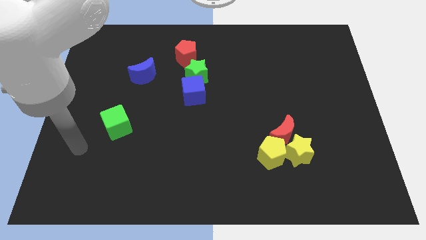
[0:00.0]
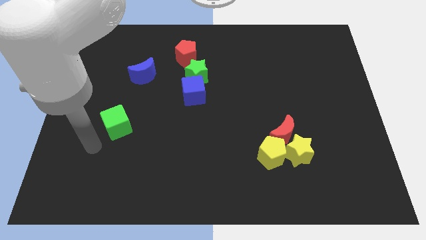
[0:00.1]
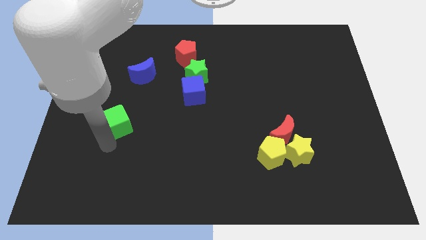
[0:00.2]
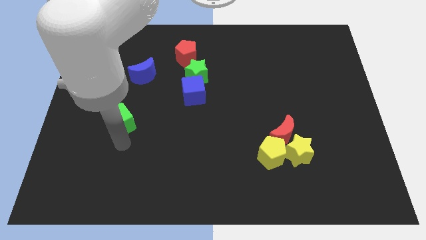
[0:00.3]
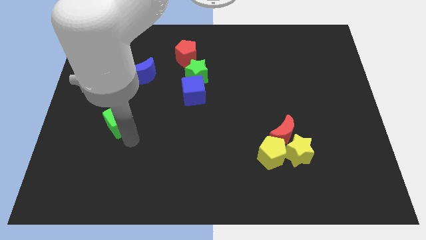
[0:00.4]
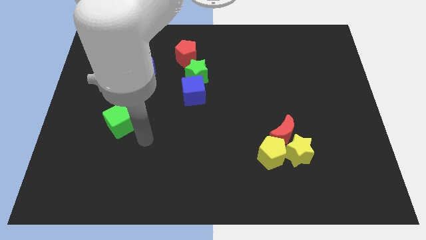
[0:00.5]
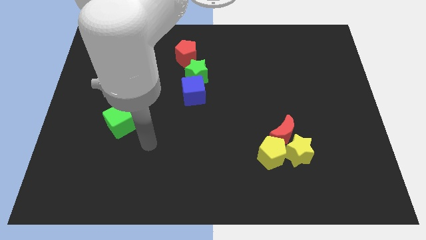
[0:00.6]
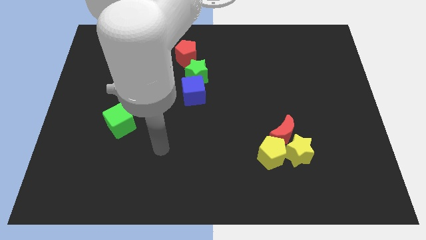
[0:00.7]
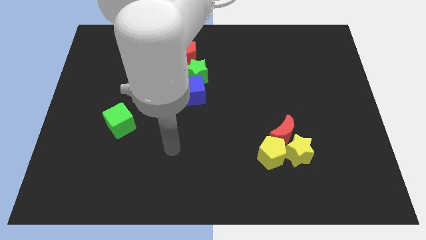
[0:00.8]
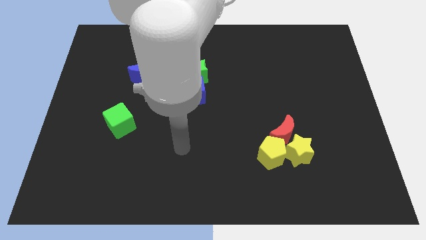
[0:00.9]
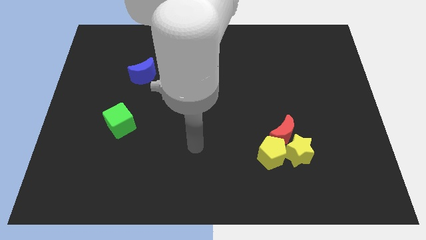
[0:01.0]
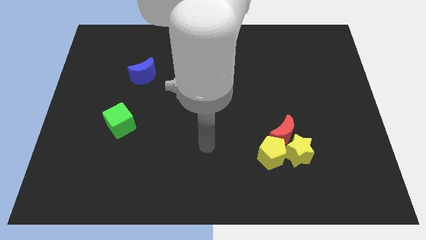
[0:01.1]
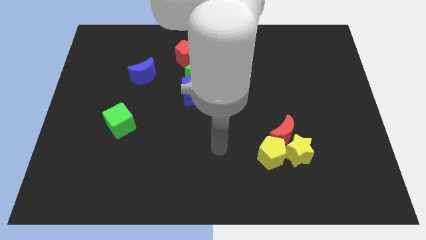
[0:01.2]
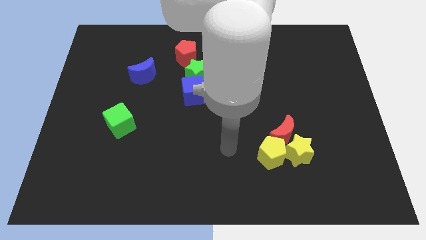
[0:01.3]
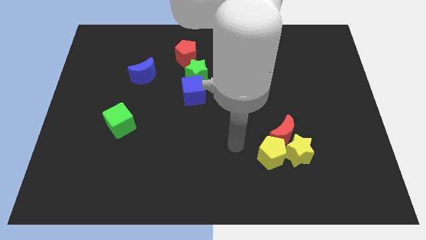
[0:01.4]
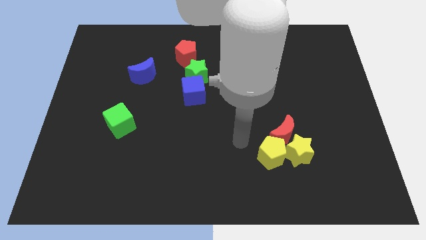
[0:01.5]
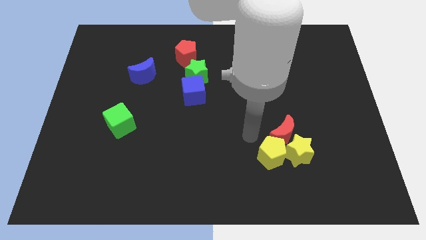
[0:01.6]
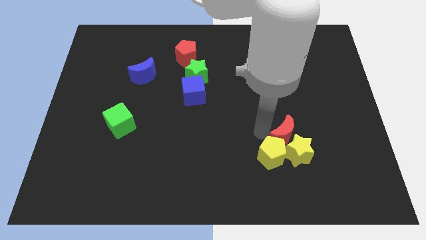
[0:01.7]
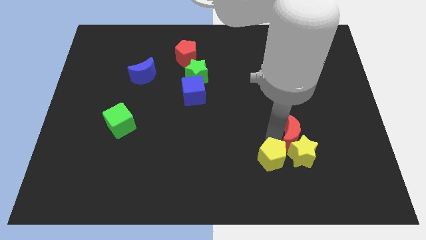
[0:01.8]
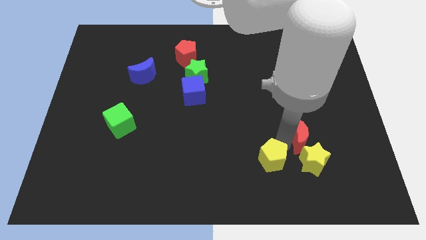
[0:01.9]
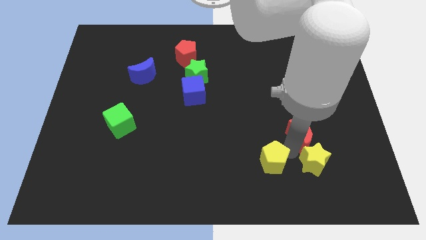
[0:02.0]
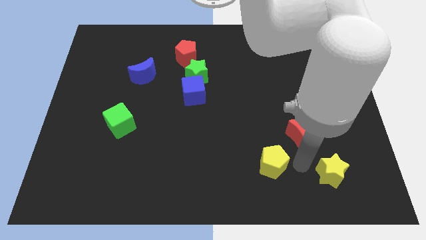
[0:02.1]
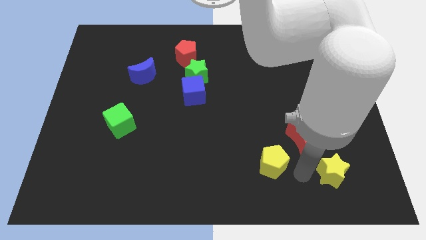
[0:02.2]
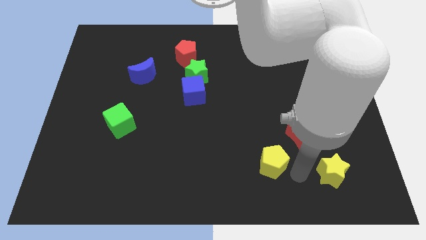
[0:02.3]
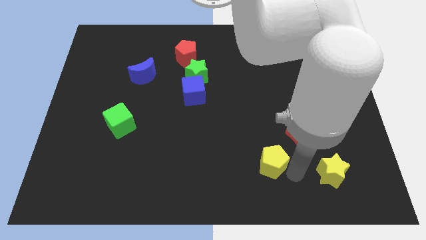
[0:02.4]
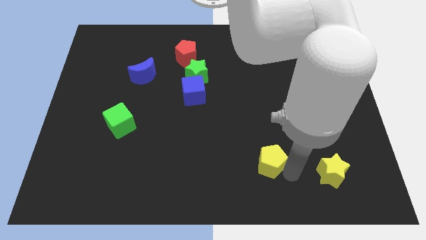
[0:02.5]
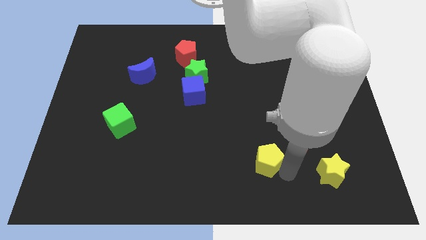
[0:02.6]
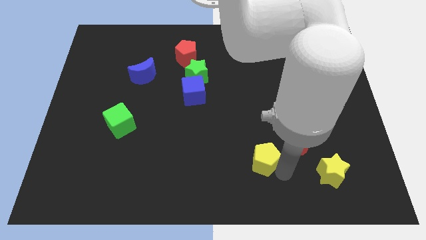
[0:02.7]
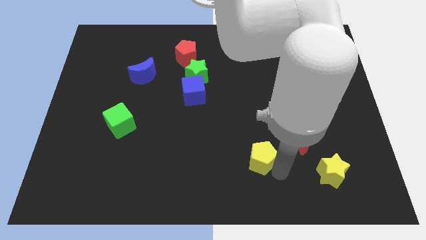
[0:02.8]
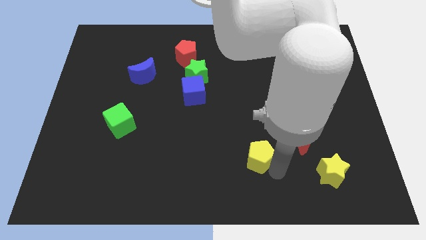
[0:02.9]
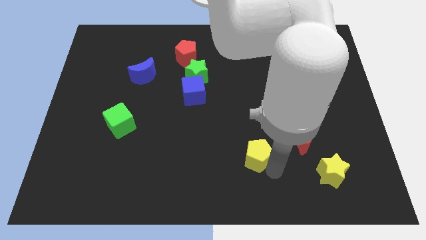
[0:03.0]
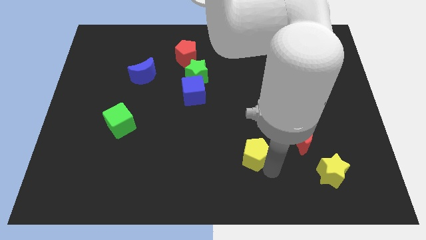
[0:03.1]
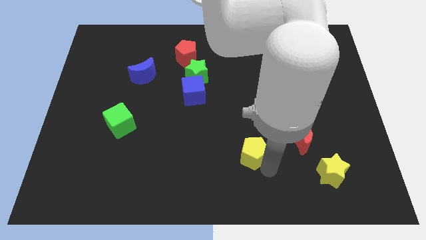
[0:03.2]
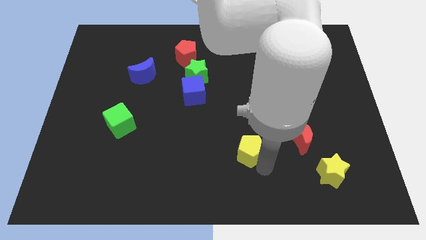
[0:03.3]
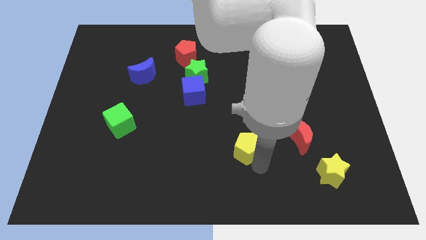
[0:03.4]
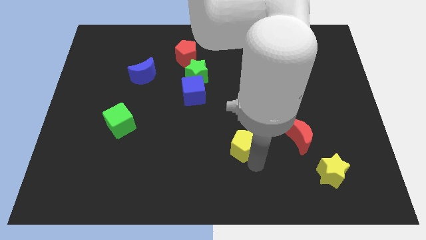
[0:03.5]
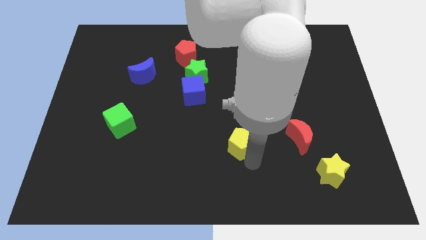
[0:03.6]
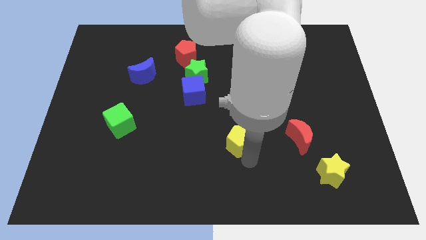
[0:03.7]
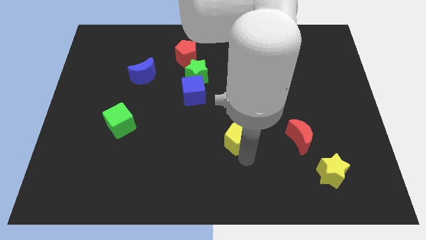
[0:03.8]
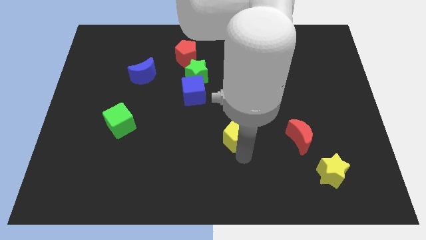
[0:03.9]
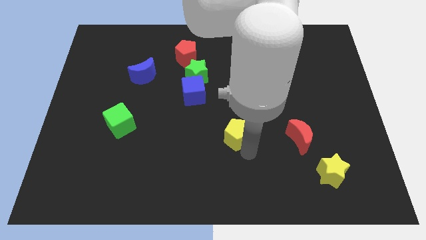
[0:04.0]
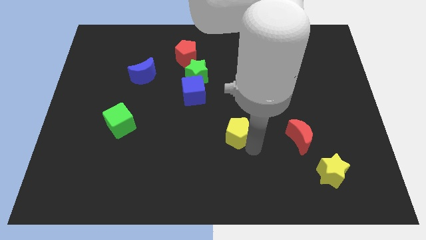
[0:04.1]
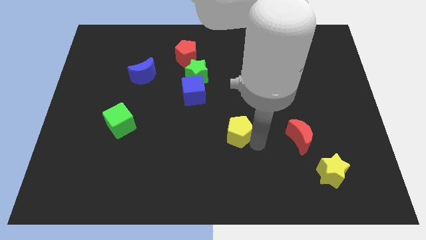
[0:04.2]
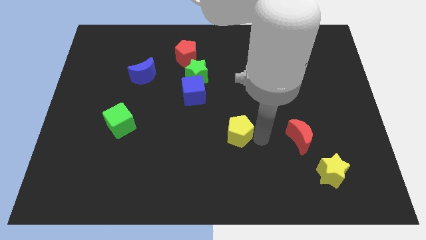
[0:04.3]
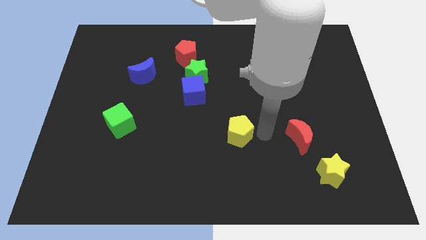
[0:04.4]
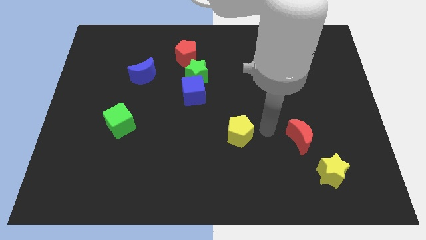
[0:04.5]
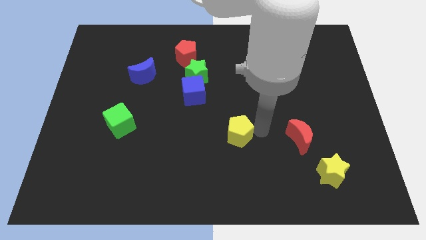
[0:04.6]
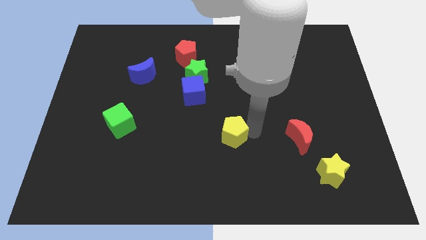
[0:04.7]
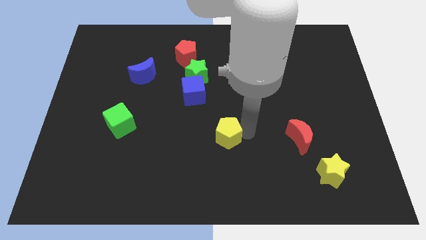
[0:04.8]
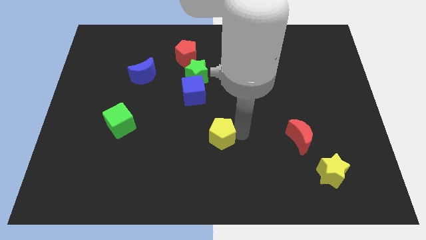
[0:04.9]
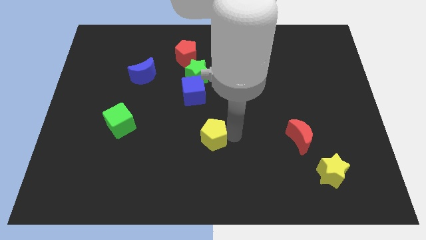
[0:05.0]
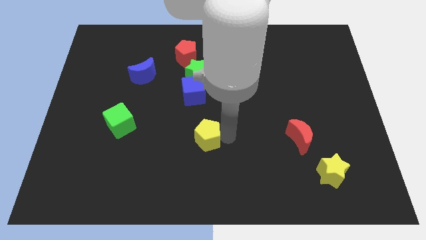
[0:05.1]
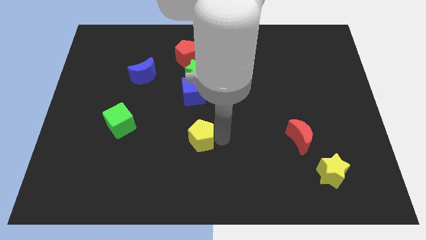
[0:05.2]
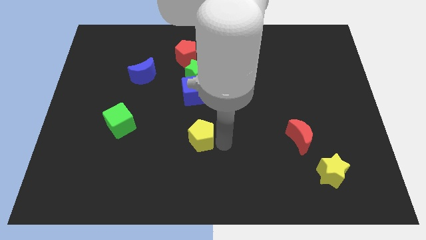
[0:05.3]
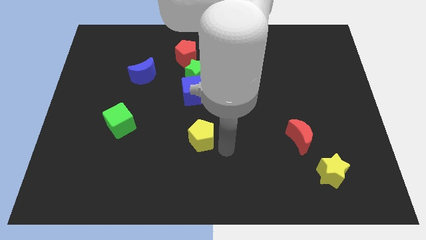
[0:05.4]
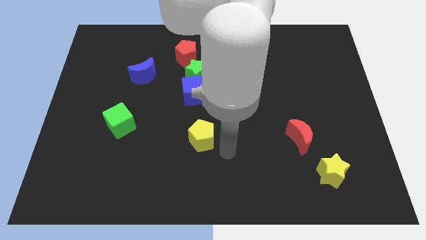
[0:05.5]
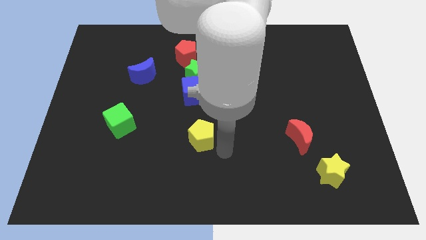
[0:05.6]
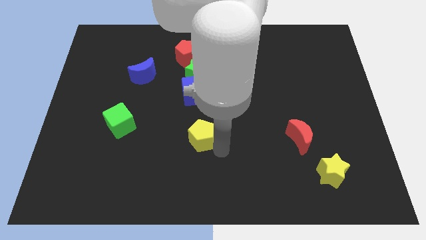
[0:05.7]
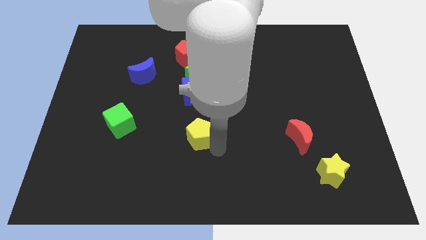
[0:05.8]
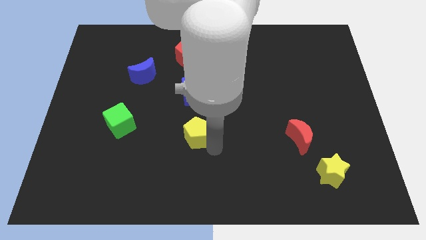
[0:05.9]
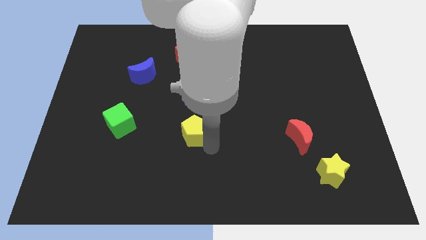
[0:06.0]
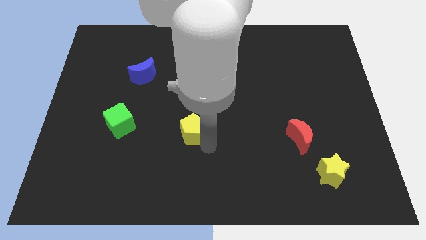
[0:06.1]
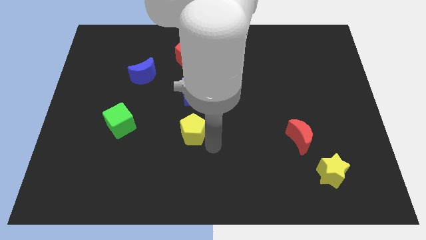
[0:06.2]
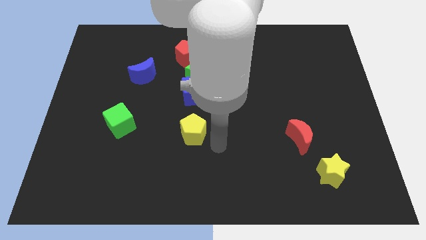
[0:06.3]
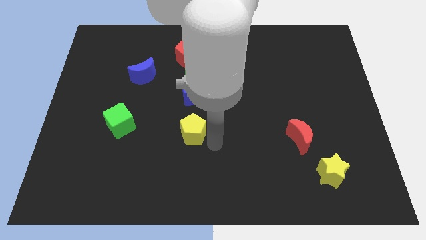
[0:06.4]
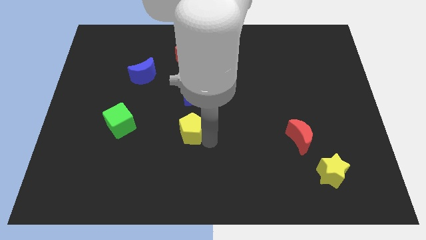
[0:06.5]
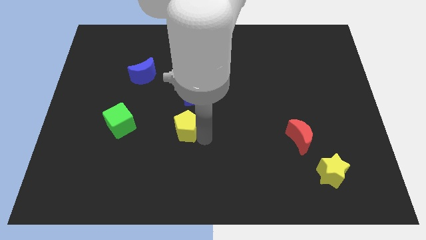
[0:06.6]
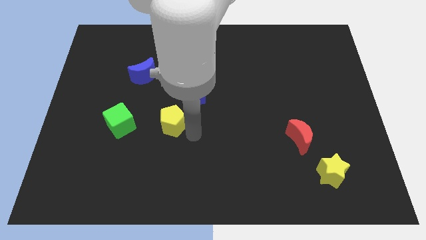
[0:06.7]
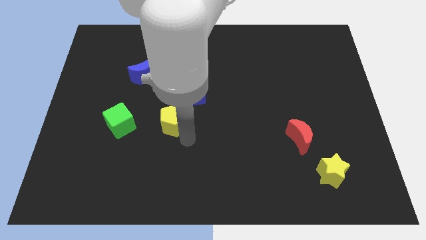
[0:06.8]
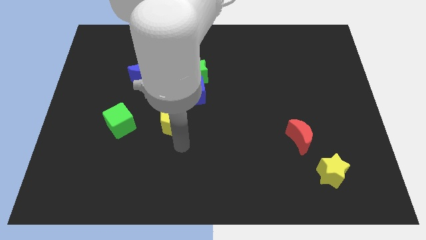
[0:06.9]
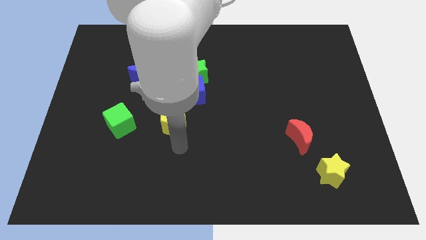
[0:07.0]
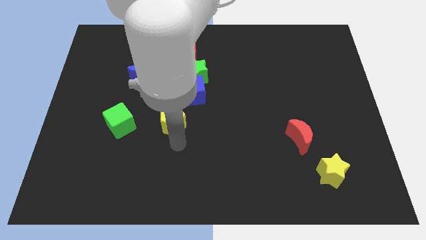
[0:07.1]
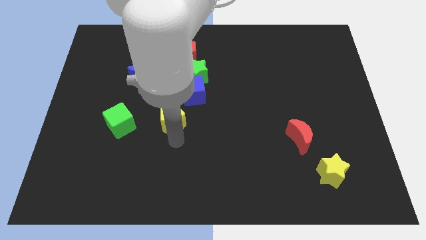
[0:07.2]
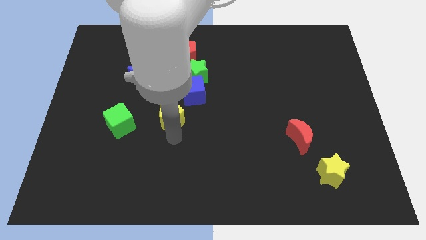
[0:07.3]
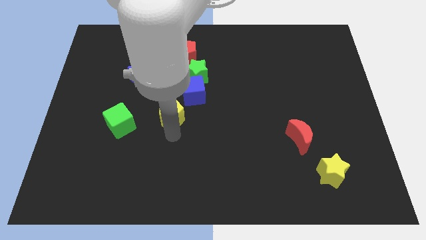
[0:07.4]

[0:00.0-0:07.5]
push the yellow pentagon up and left diagonally

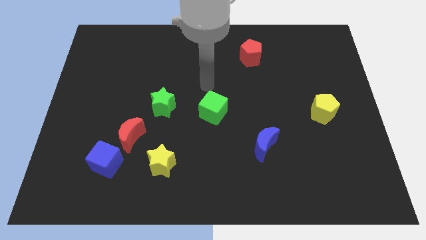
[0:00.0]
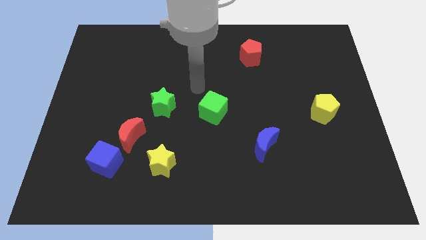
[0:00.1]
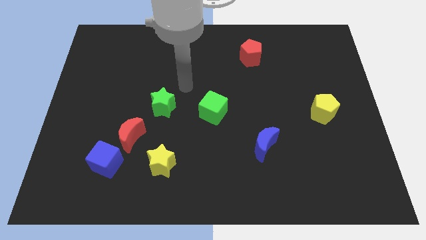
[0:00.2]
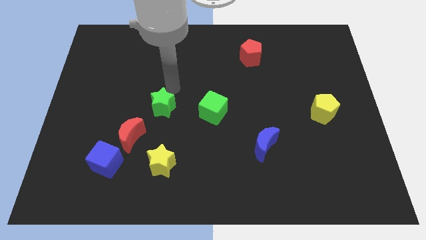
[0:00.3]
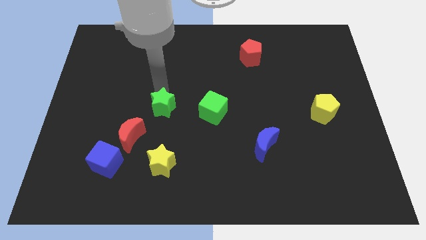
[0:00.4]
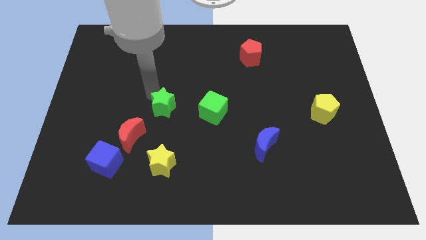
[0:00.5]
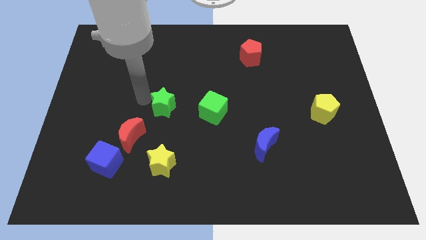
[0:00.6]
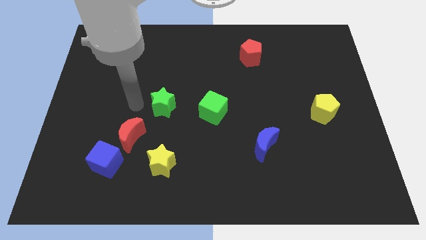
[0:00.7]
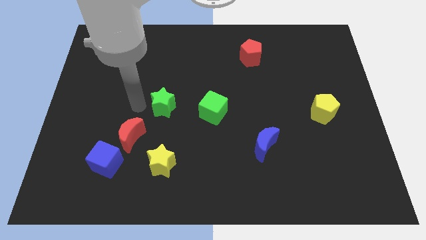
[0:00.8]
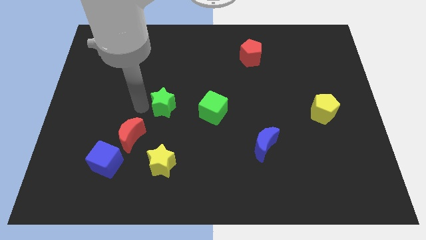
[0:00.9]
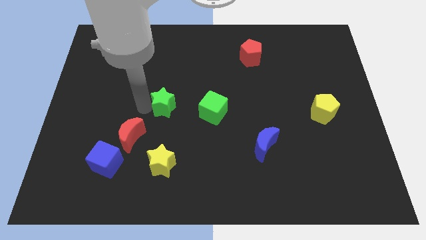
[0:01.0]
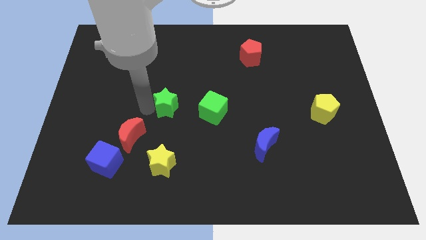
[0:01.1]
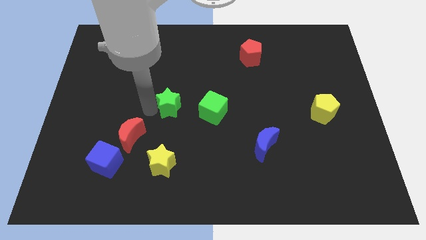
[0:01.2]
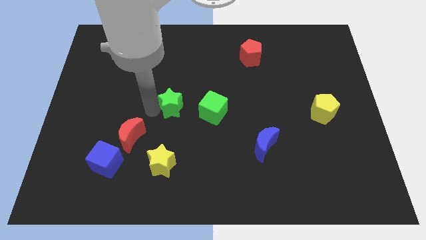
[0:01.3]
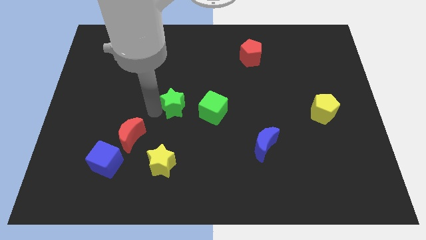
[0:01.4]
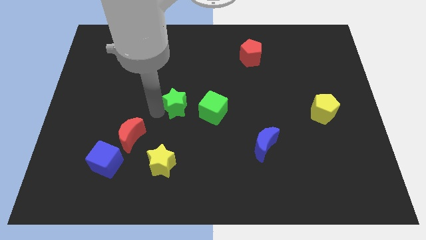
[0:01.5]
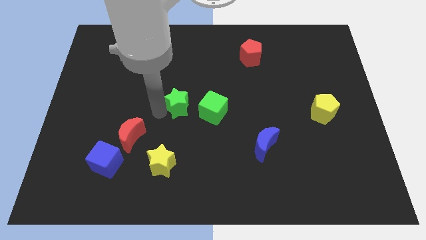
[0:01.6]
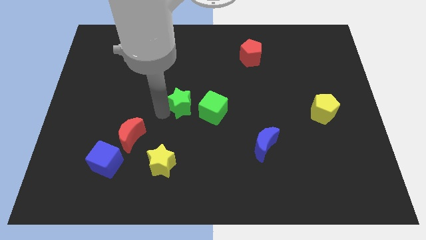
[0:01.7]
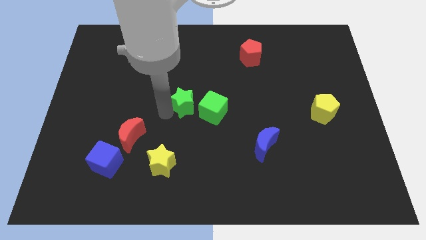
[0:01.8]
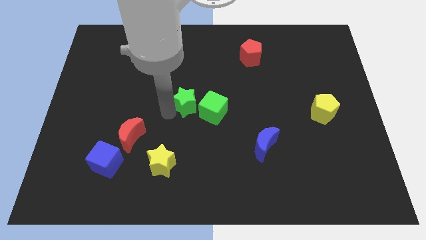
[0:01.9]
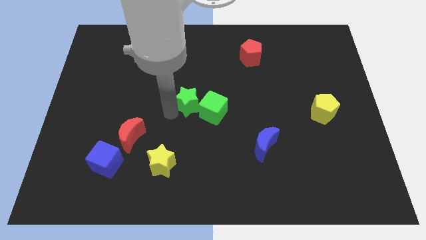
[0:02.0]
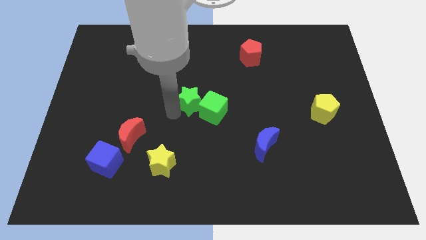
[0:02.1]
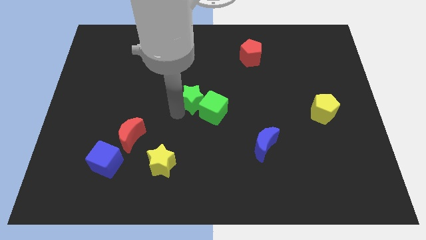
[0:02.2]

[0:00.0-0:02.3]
push the green star a little to the right
